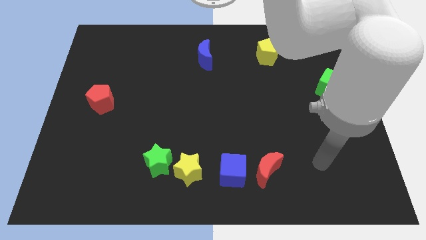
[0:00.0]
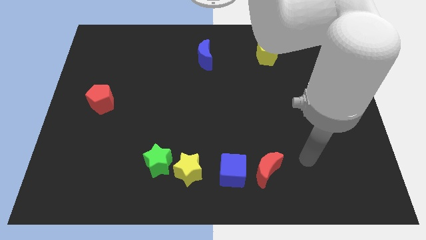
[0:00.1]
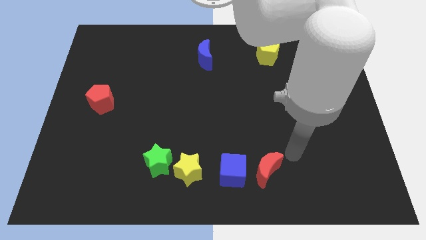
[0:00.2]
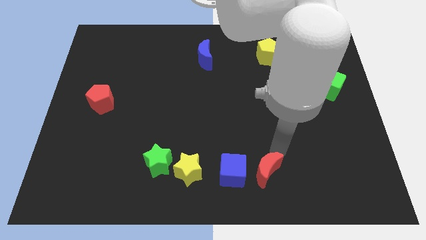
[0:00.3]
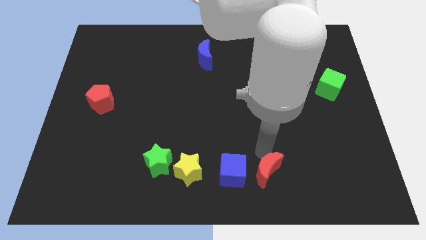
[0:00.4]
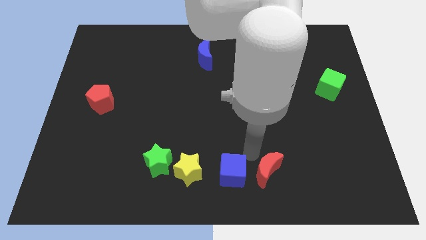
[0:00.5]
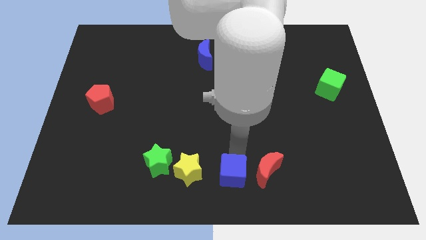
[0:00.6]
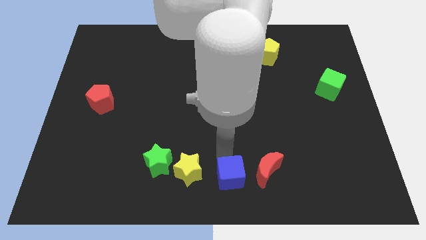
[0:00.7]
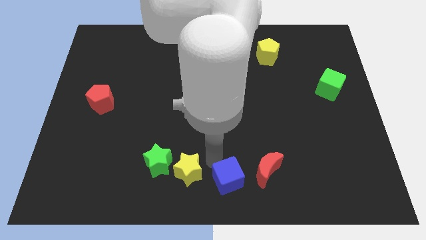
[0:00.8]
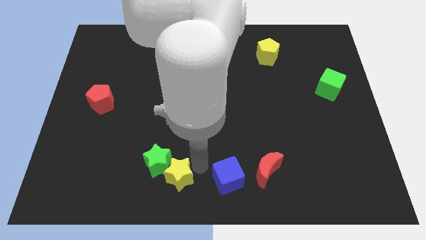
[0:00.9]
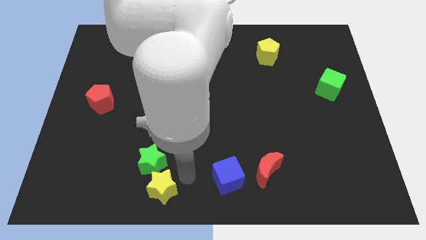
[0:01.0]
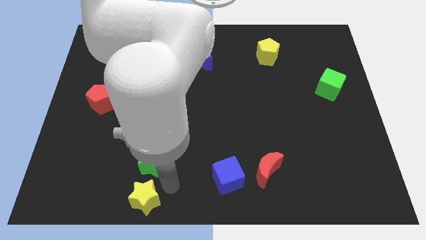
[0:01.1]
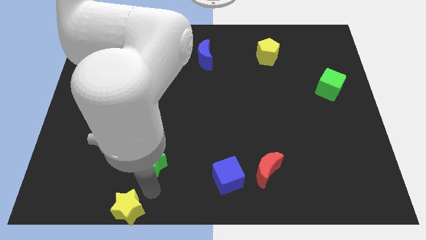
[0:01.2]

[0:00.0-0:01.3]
move the green star away from the yellow star

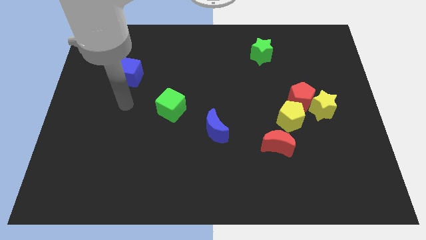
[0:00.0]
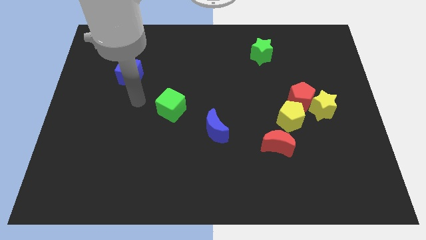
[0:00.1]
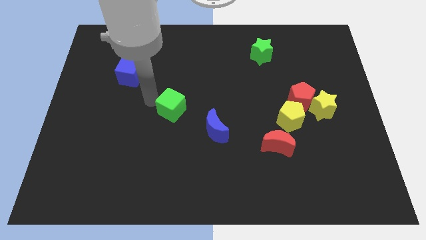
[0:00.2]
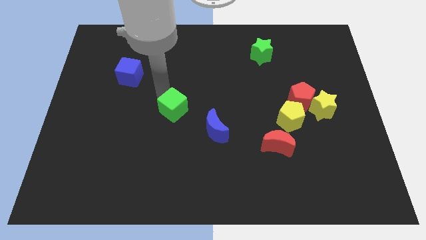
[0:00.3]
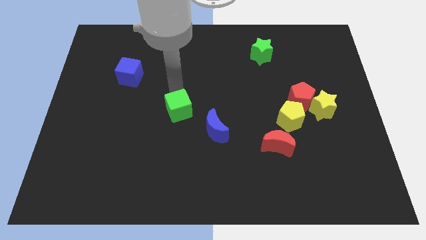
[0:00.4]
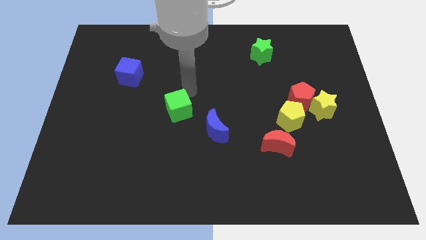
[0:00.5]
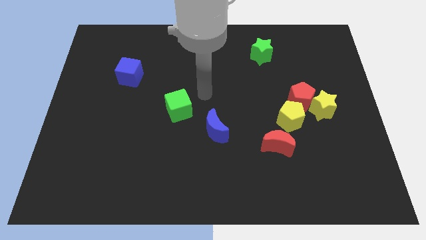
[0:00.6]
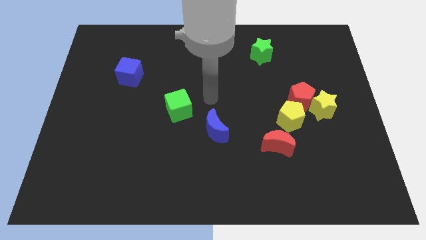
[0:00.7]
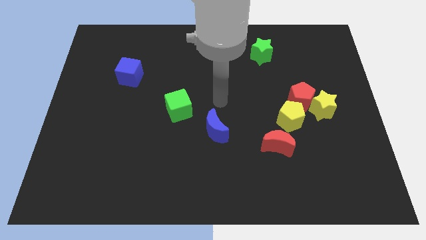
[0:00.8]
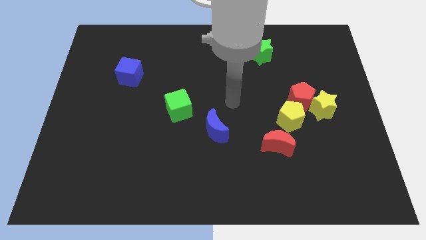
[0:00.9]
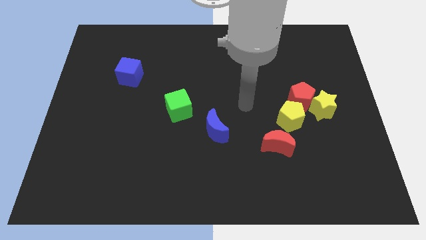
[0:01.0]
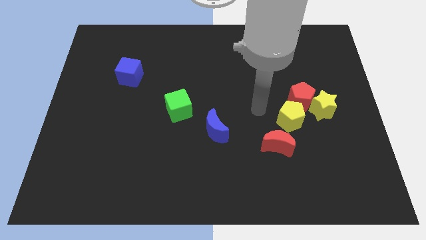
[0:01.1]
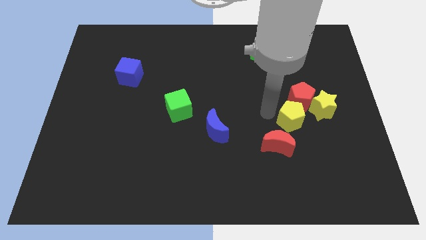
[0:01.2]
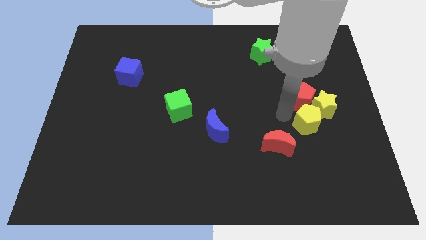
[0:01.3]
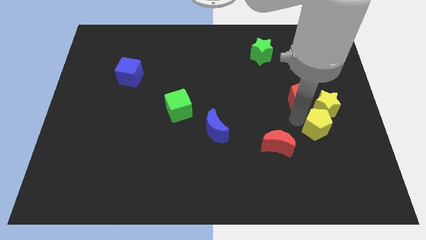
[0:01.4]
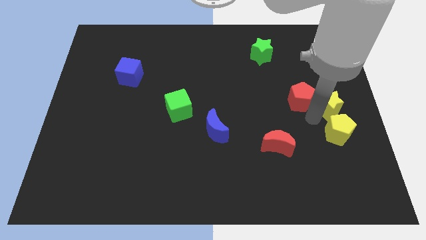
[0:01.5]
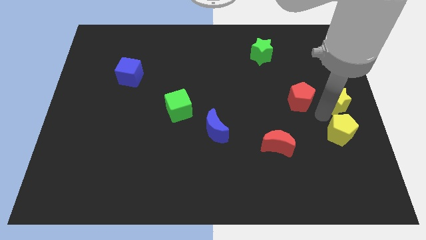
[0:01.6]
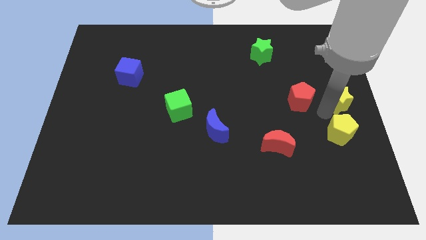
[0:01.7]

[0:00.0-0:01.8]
move the red pentagon away from the yellow star and yellow pentagon

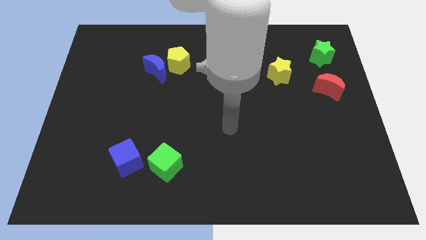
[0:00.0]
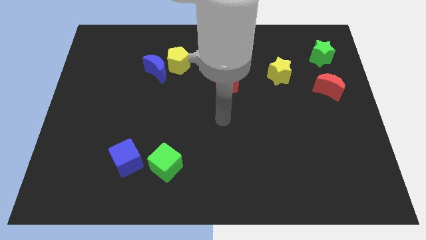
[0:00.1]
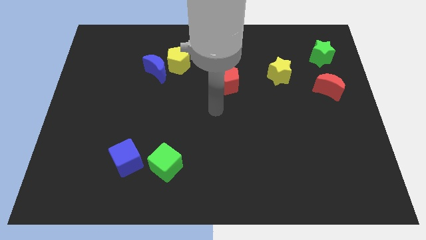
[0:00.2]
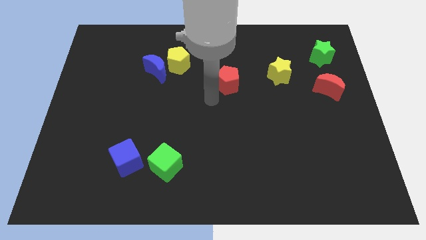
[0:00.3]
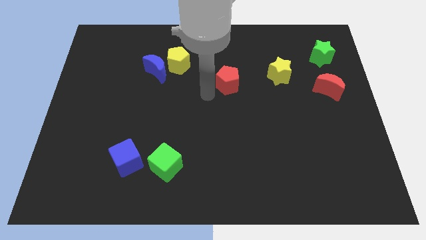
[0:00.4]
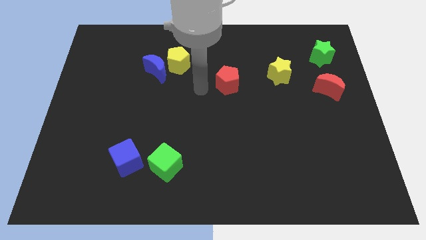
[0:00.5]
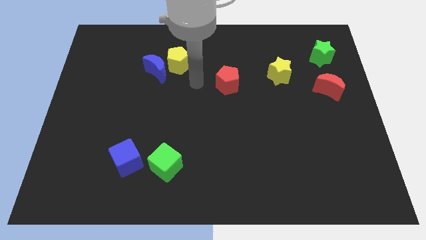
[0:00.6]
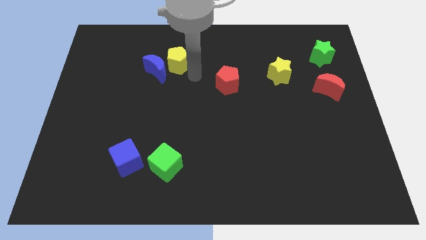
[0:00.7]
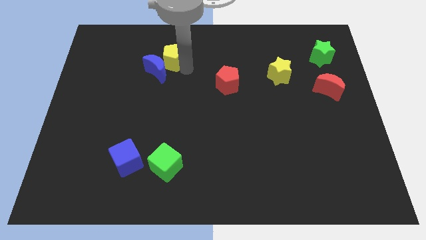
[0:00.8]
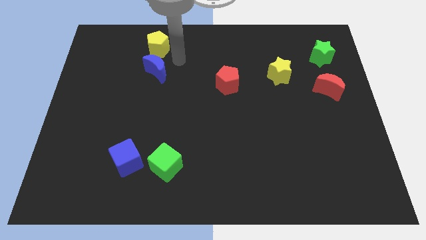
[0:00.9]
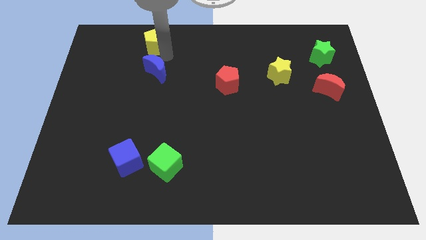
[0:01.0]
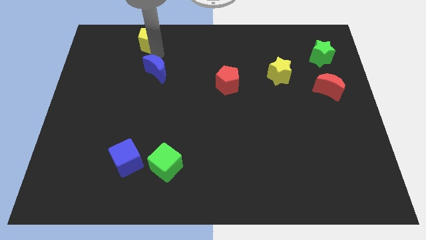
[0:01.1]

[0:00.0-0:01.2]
pull the blue moon apart from the yellow pentagon

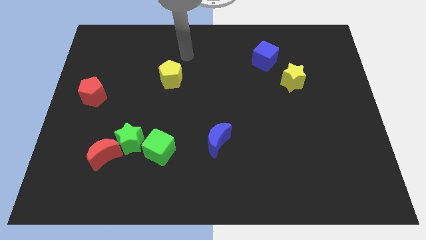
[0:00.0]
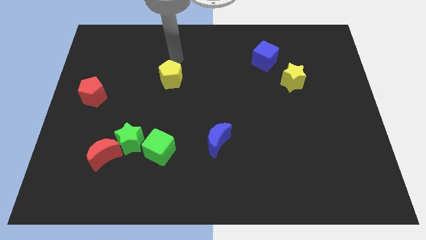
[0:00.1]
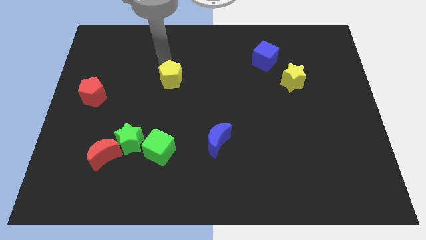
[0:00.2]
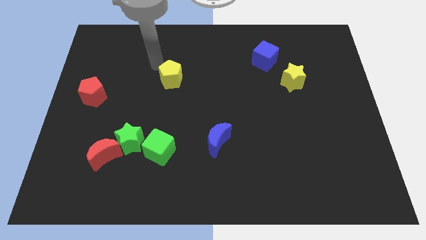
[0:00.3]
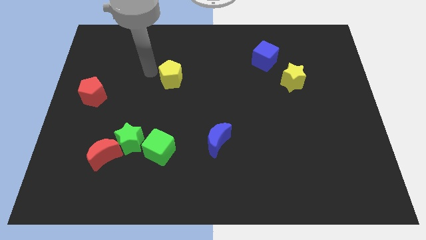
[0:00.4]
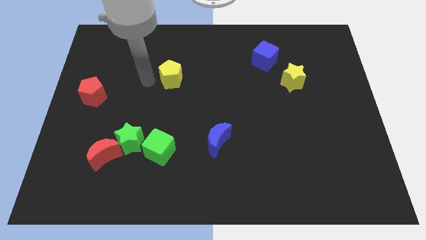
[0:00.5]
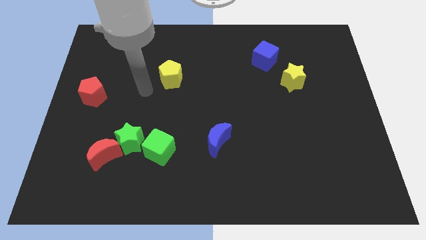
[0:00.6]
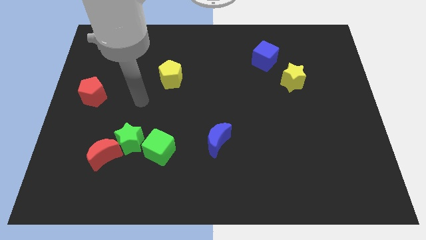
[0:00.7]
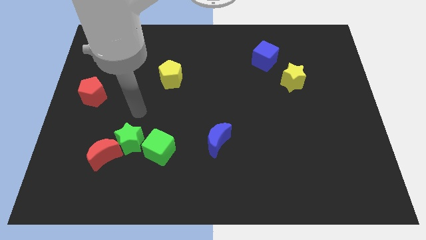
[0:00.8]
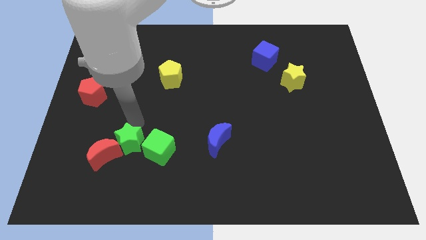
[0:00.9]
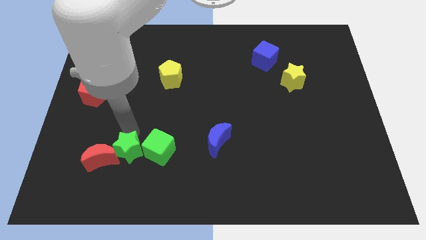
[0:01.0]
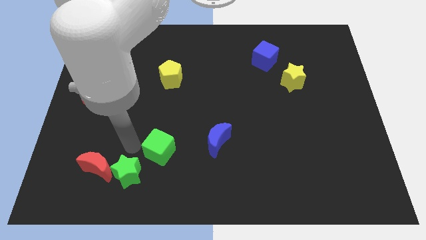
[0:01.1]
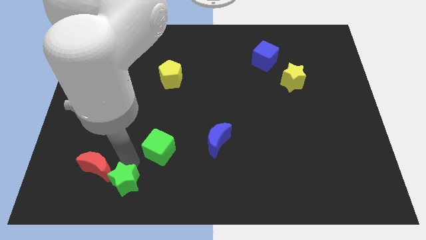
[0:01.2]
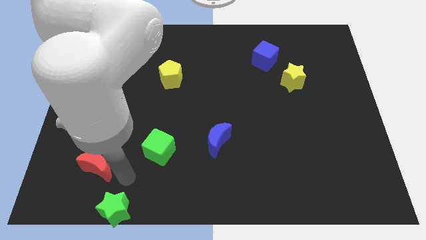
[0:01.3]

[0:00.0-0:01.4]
separate the red moon from the green star

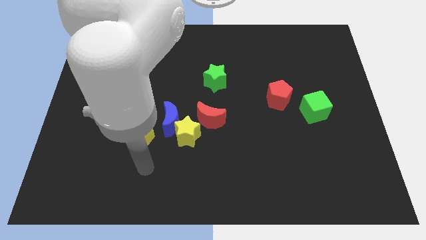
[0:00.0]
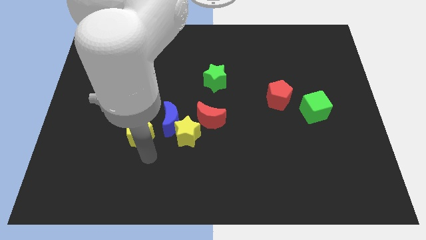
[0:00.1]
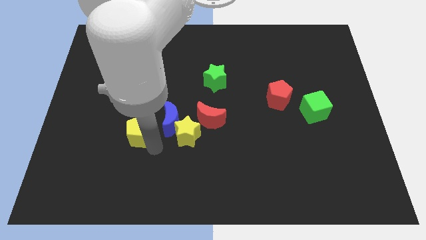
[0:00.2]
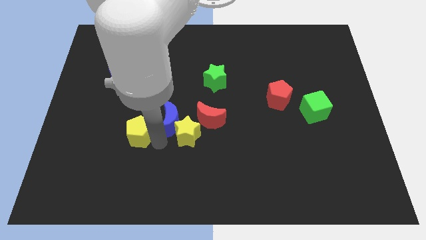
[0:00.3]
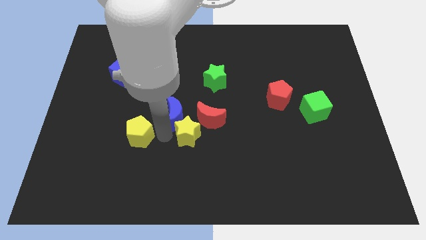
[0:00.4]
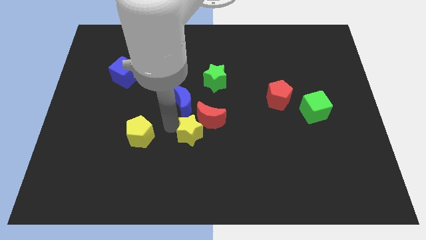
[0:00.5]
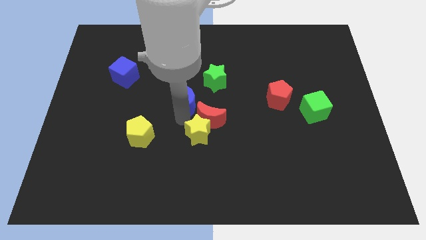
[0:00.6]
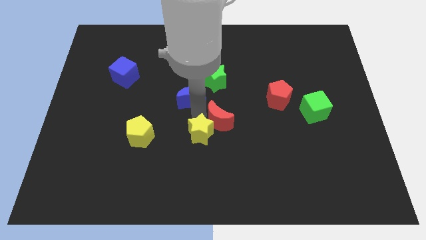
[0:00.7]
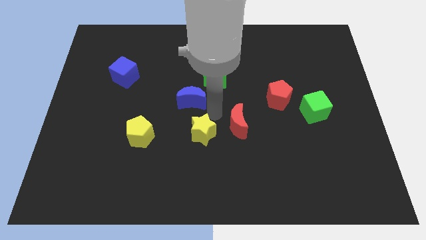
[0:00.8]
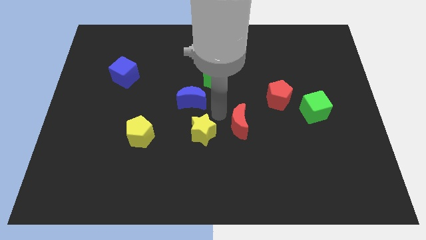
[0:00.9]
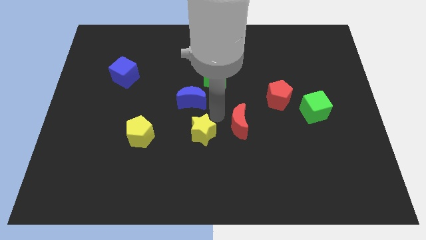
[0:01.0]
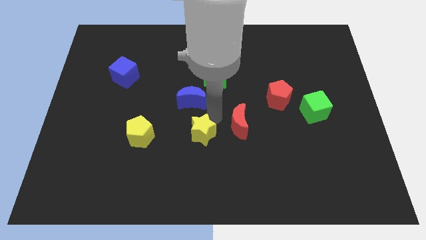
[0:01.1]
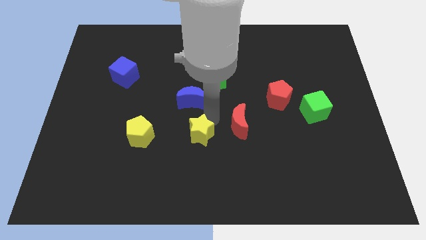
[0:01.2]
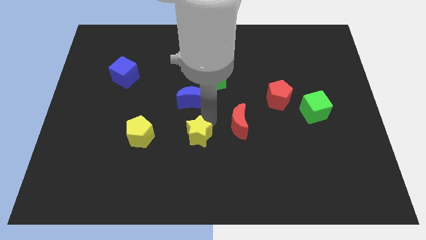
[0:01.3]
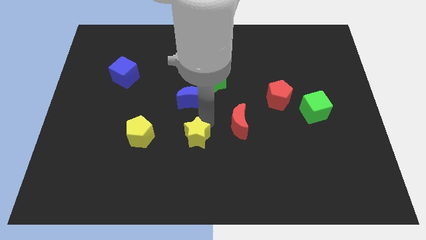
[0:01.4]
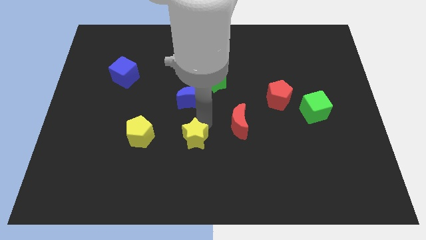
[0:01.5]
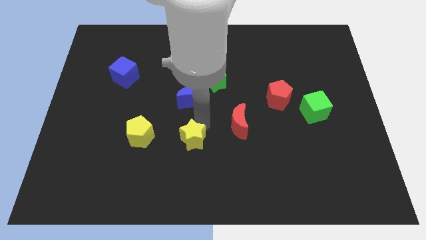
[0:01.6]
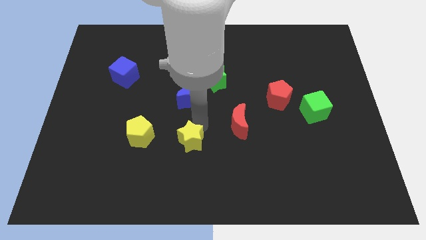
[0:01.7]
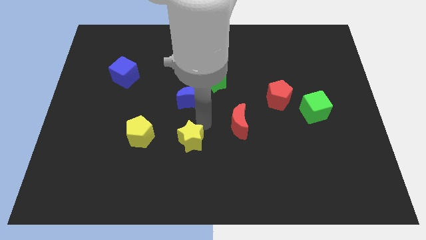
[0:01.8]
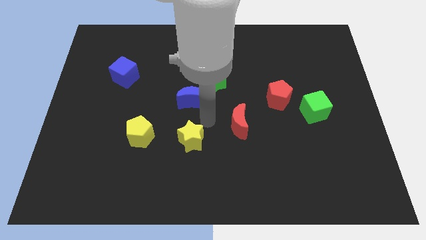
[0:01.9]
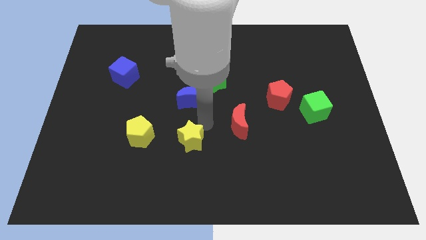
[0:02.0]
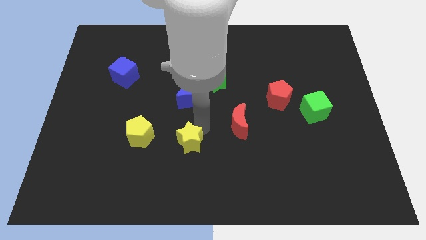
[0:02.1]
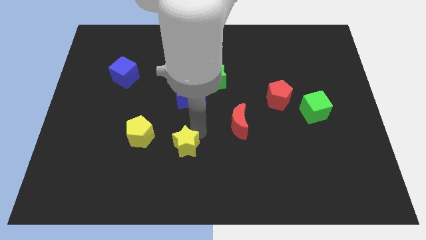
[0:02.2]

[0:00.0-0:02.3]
pull the yellow star apart from the blue moon and red moon

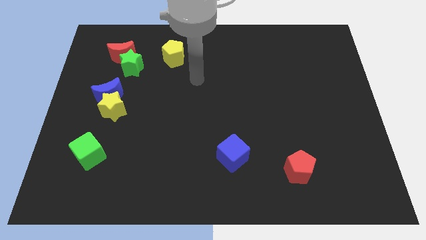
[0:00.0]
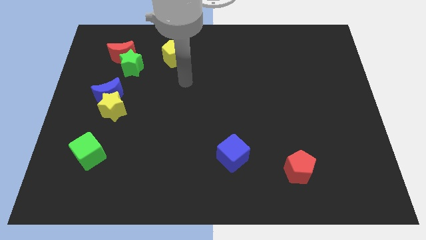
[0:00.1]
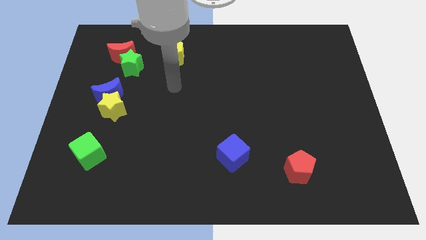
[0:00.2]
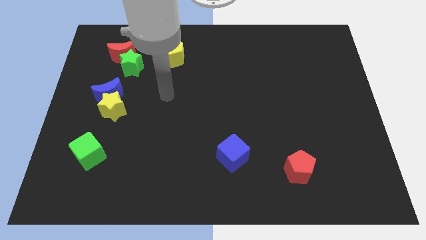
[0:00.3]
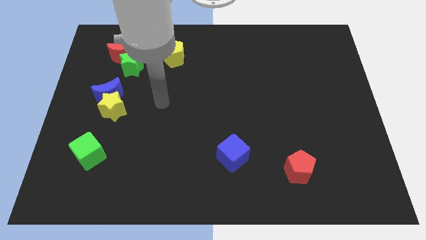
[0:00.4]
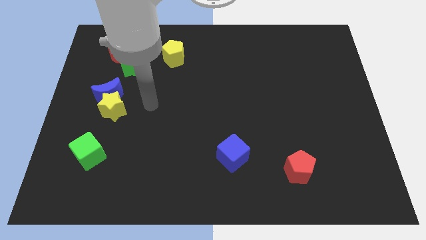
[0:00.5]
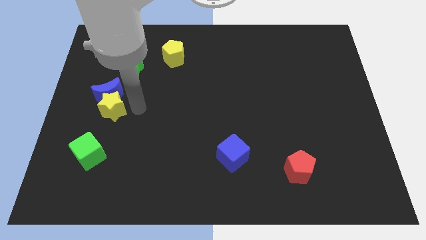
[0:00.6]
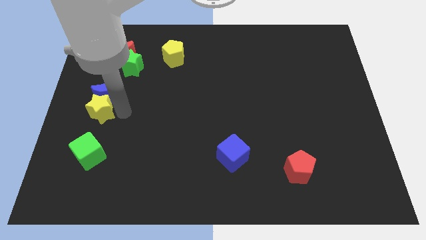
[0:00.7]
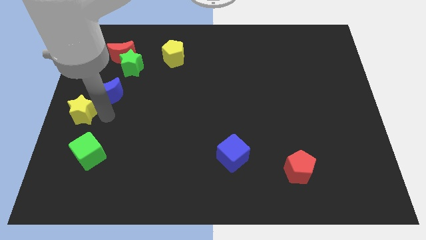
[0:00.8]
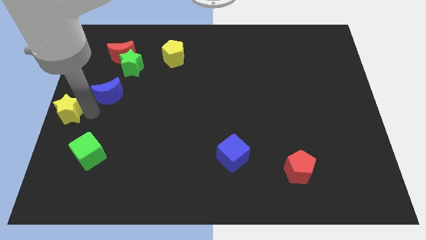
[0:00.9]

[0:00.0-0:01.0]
move the blue moon away from the yellow star

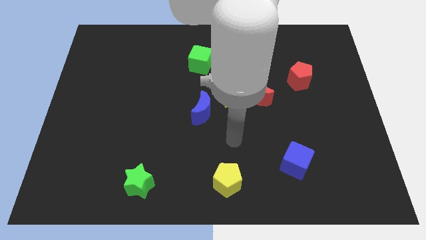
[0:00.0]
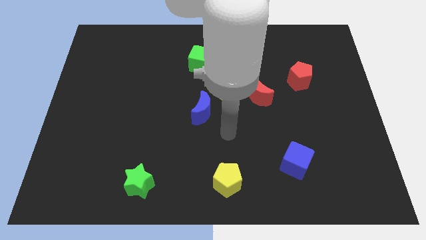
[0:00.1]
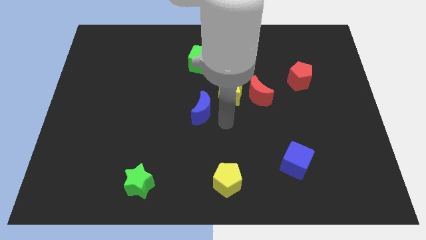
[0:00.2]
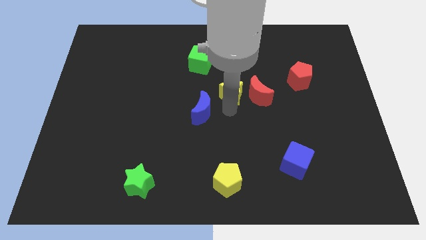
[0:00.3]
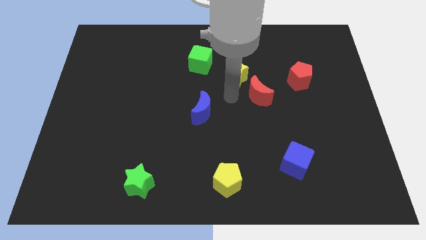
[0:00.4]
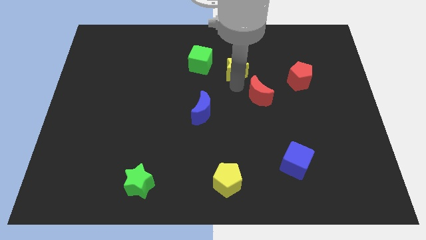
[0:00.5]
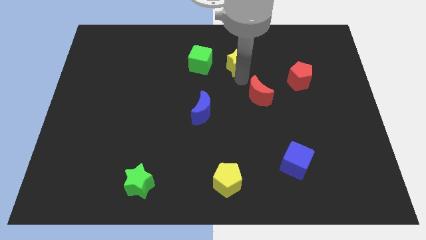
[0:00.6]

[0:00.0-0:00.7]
move the red moon away from the yellow star
